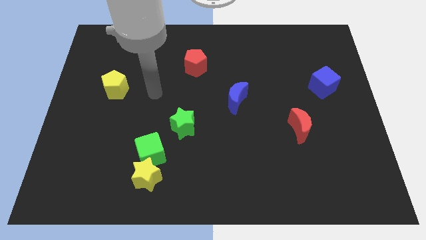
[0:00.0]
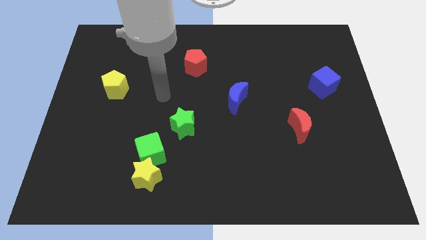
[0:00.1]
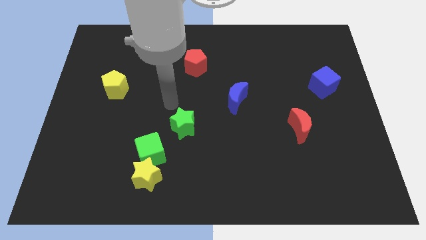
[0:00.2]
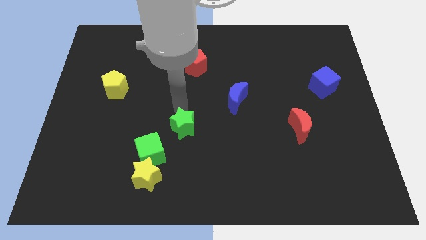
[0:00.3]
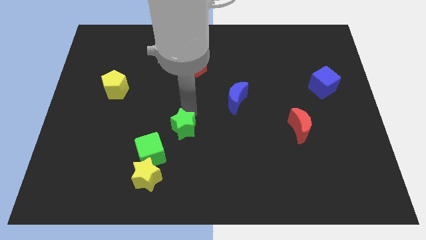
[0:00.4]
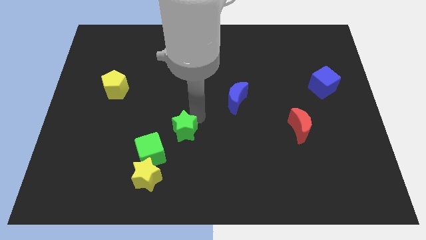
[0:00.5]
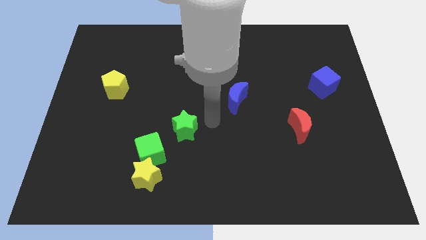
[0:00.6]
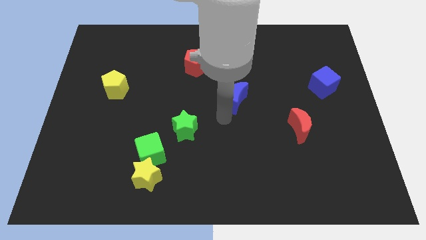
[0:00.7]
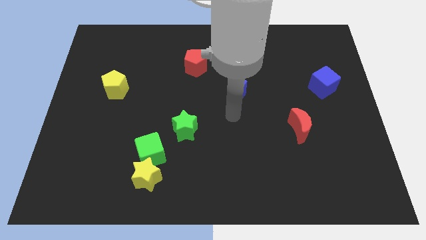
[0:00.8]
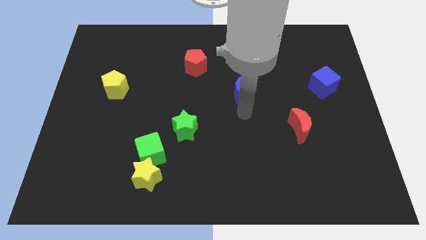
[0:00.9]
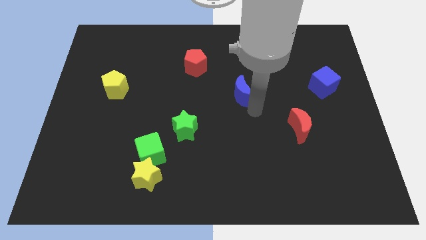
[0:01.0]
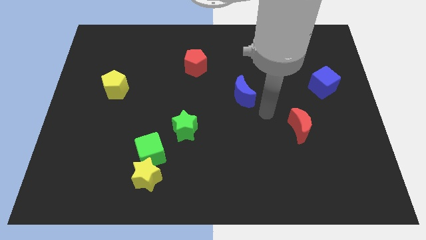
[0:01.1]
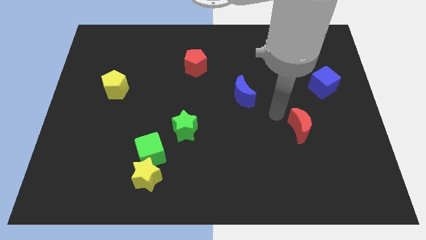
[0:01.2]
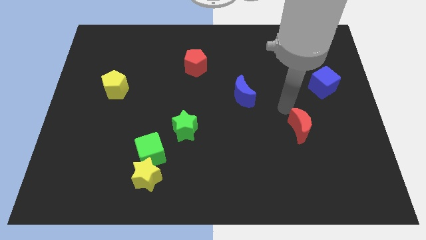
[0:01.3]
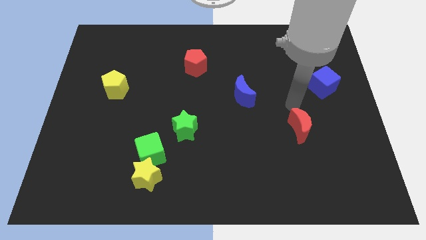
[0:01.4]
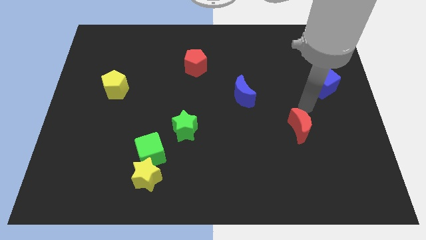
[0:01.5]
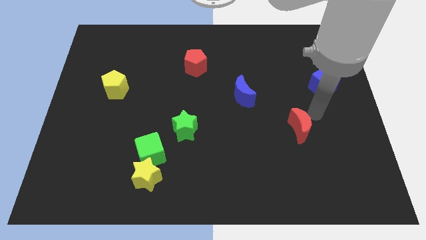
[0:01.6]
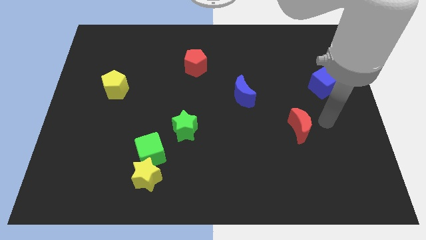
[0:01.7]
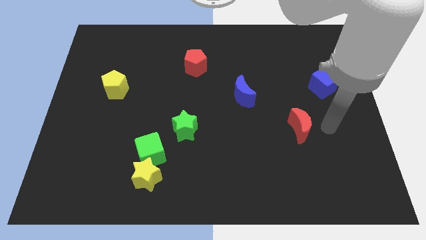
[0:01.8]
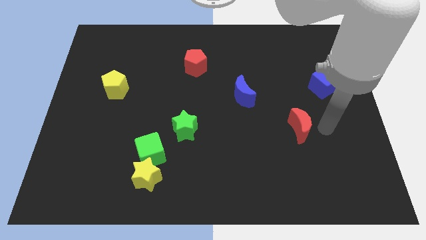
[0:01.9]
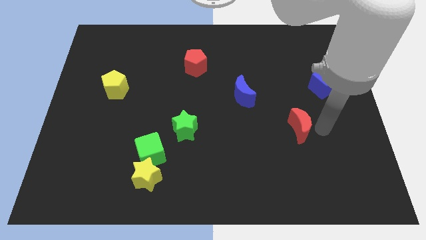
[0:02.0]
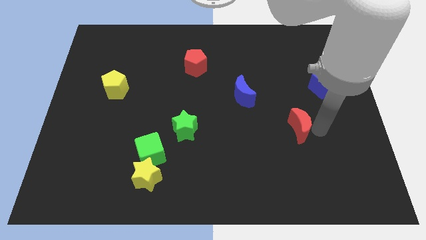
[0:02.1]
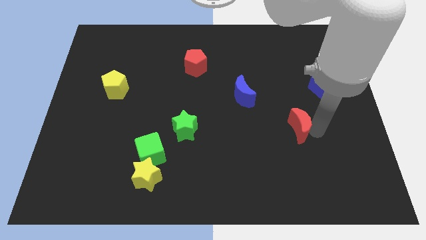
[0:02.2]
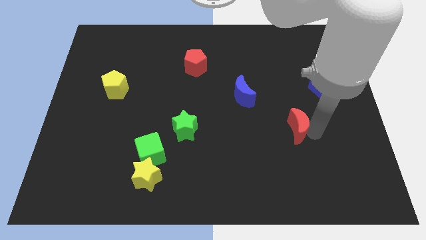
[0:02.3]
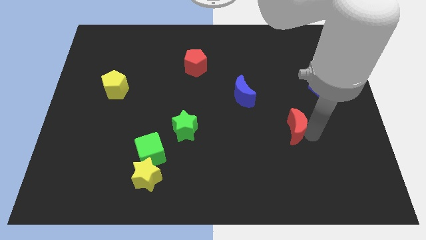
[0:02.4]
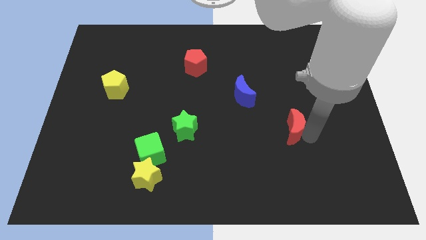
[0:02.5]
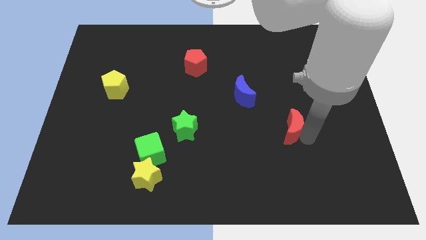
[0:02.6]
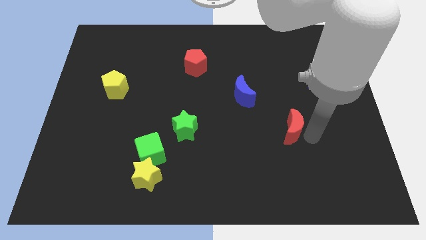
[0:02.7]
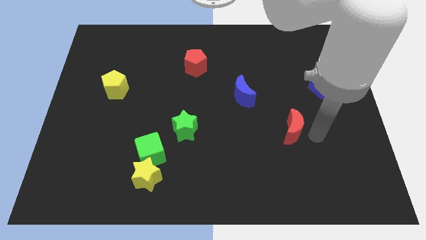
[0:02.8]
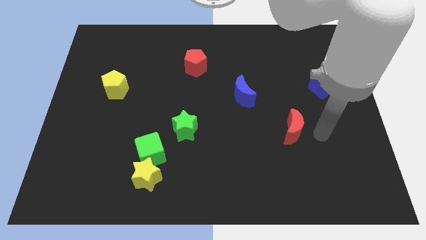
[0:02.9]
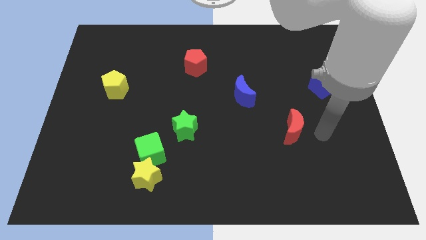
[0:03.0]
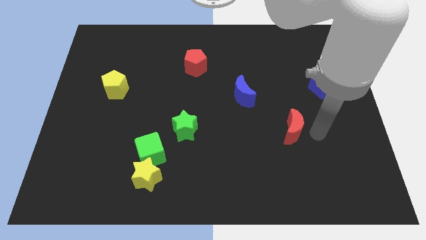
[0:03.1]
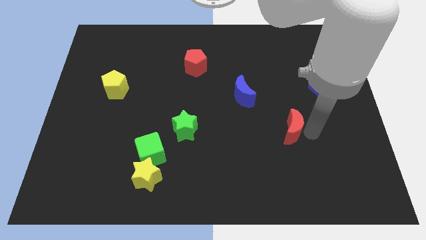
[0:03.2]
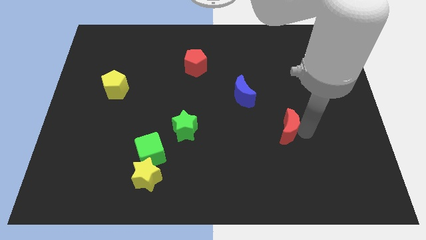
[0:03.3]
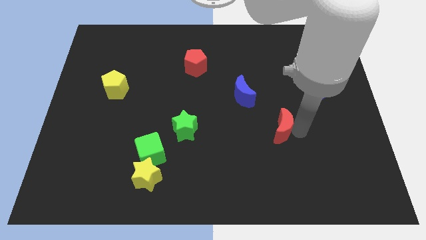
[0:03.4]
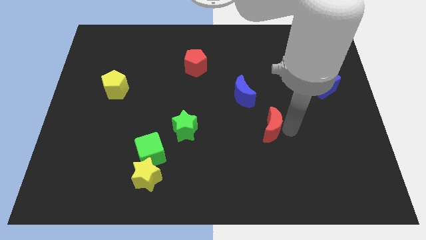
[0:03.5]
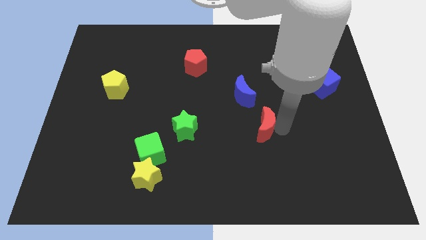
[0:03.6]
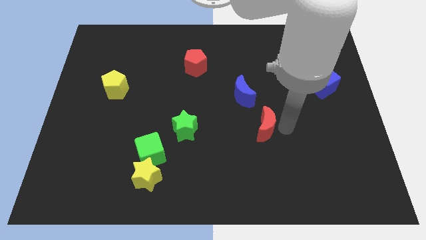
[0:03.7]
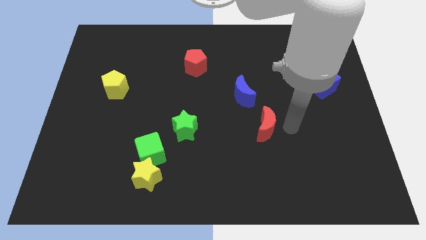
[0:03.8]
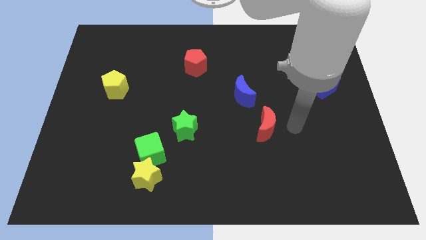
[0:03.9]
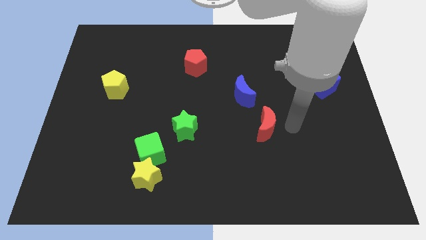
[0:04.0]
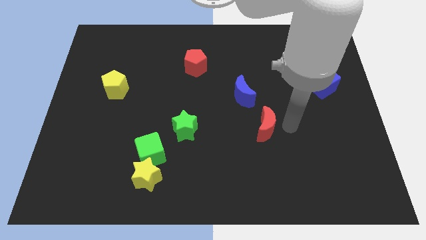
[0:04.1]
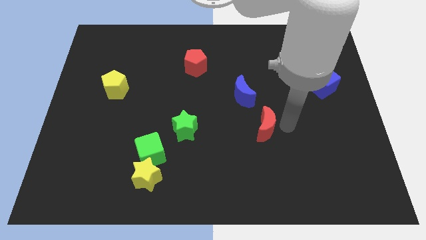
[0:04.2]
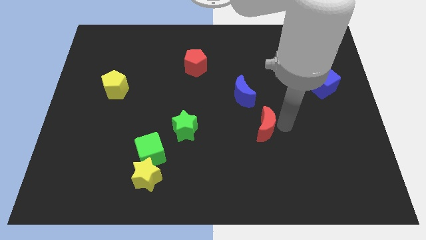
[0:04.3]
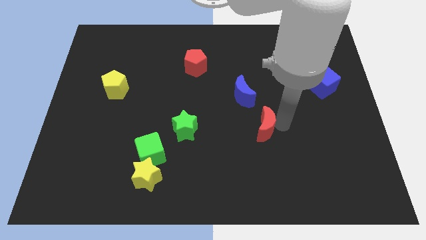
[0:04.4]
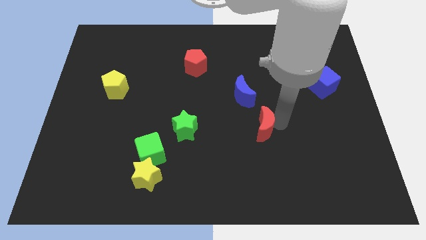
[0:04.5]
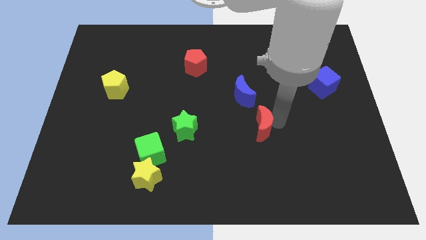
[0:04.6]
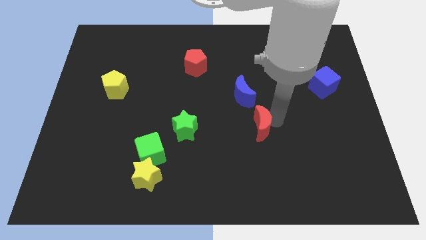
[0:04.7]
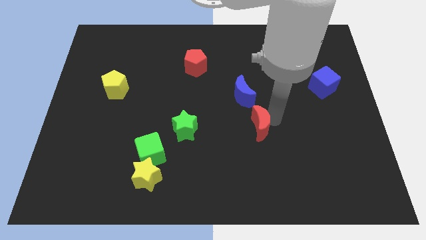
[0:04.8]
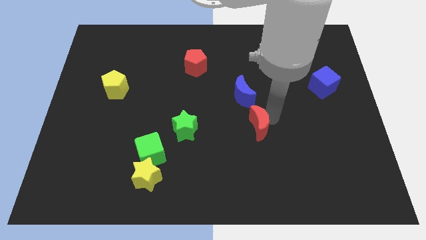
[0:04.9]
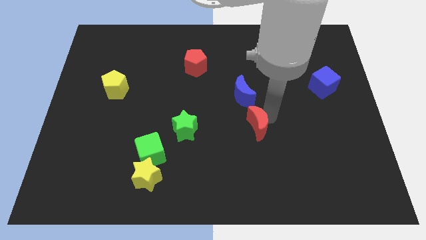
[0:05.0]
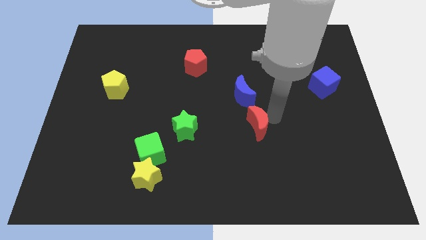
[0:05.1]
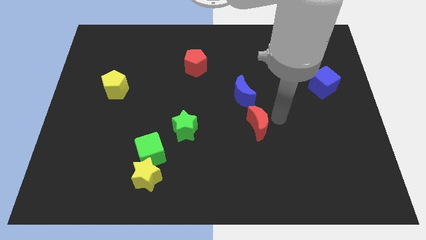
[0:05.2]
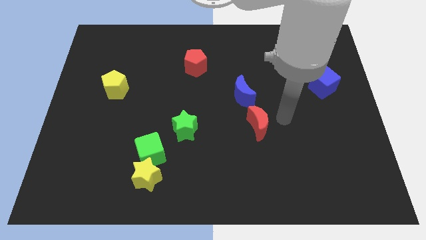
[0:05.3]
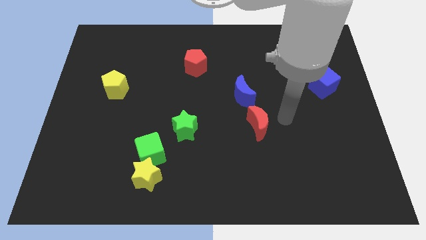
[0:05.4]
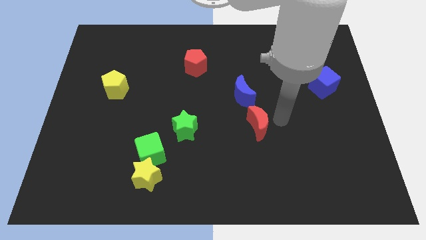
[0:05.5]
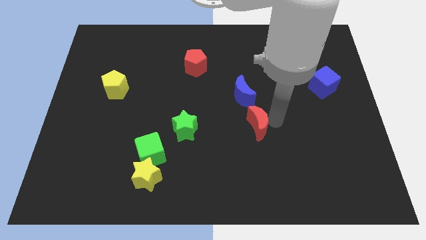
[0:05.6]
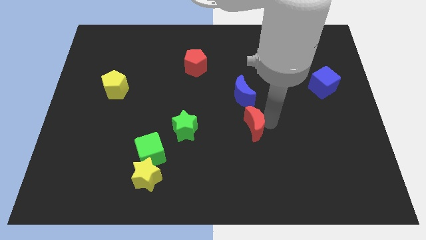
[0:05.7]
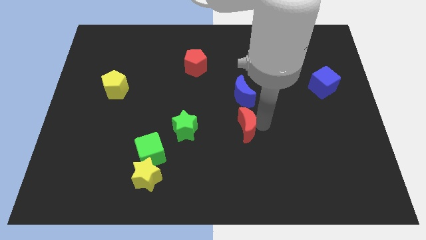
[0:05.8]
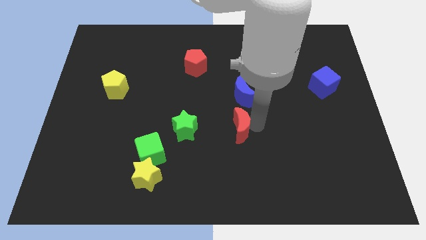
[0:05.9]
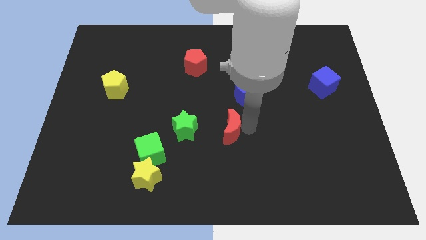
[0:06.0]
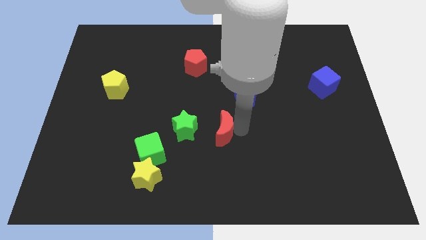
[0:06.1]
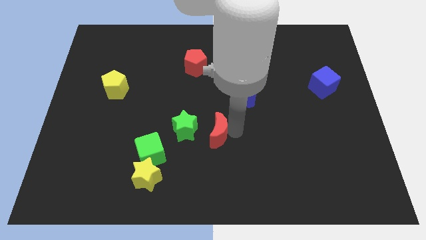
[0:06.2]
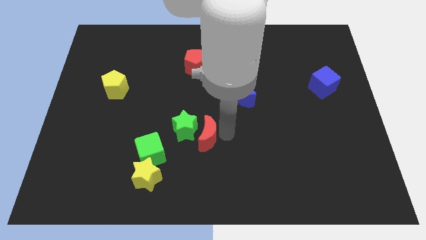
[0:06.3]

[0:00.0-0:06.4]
slide the red moon next to the green star
